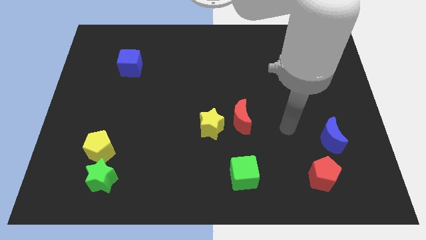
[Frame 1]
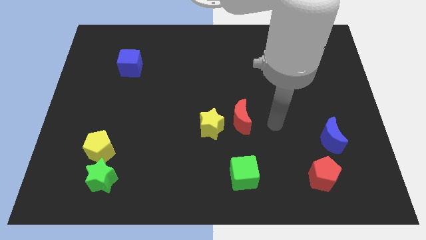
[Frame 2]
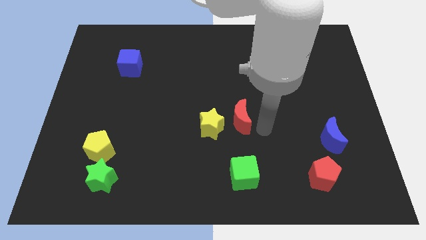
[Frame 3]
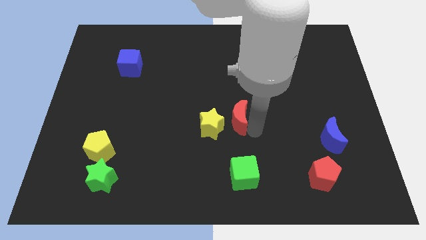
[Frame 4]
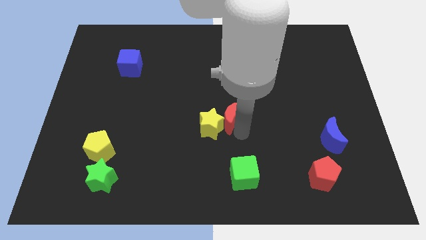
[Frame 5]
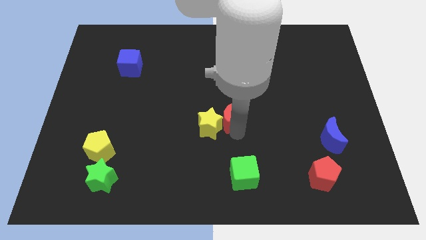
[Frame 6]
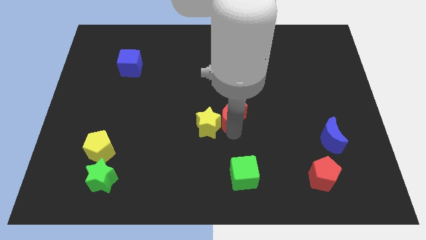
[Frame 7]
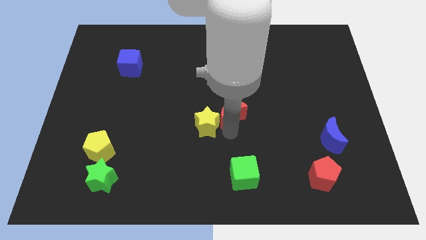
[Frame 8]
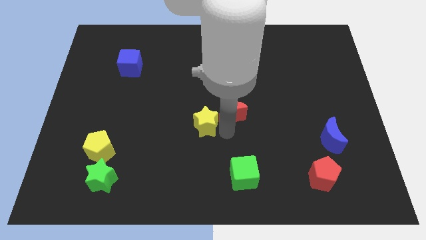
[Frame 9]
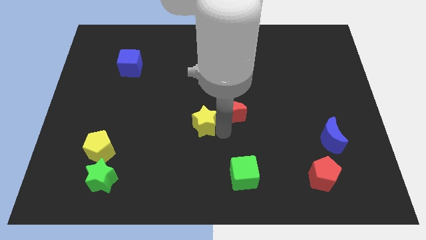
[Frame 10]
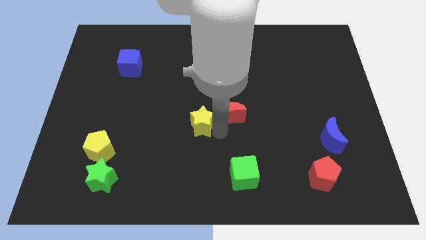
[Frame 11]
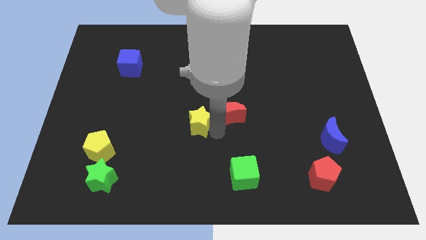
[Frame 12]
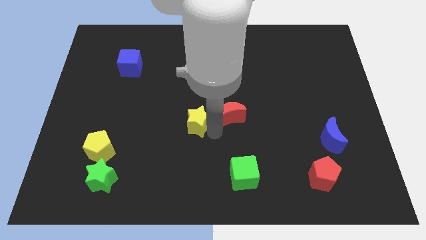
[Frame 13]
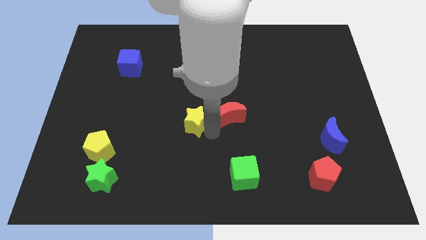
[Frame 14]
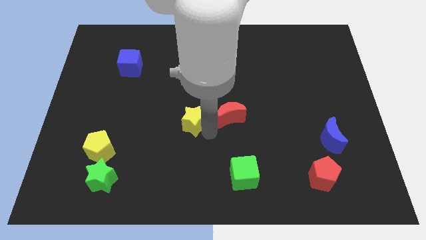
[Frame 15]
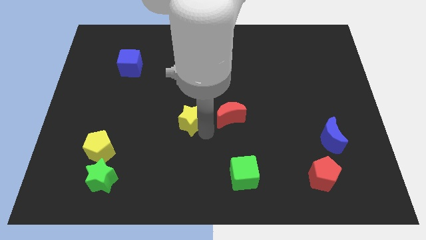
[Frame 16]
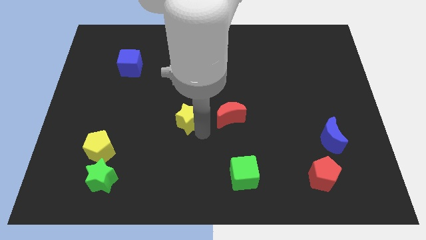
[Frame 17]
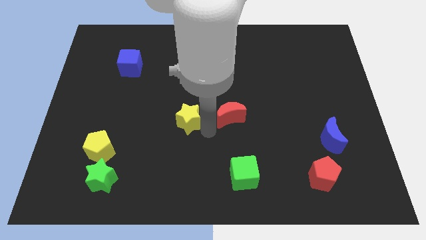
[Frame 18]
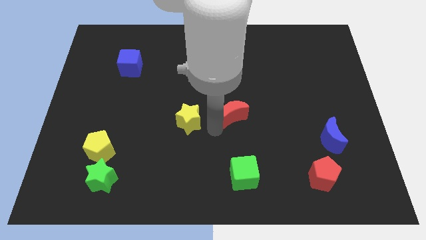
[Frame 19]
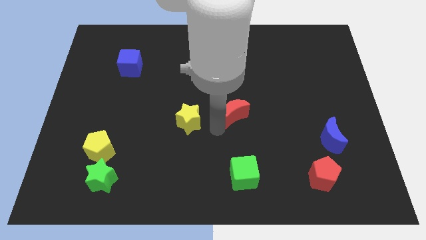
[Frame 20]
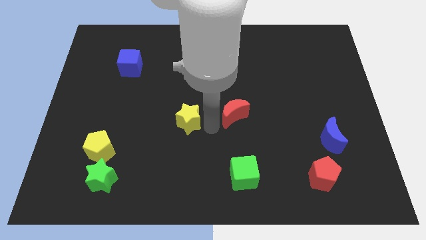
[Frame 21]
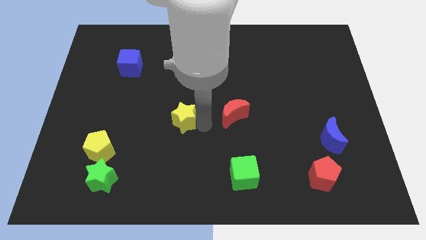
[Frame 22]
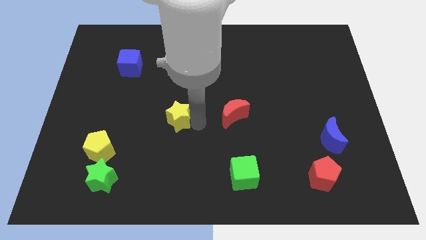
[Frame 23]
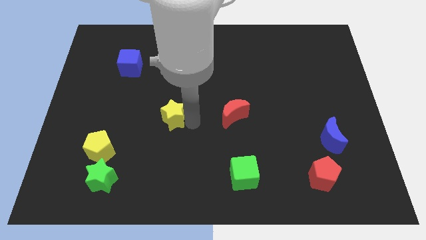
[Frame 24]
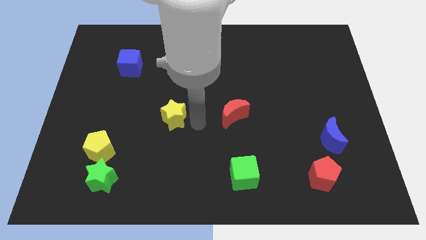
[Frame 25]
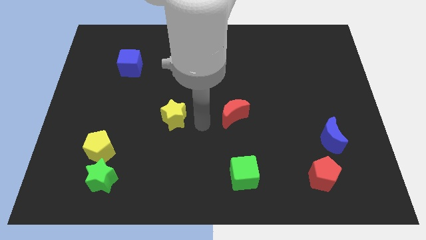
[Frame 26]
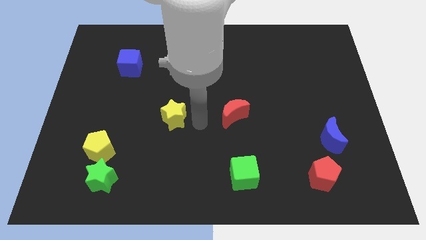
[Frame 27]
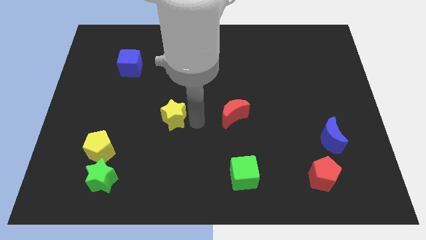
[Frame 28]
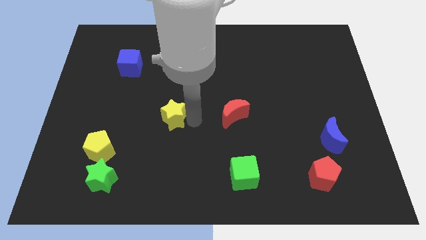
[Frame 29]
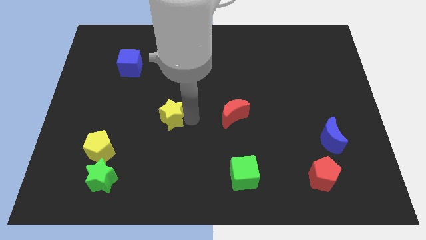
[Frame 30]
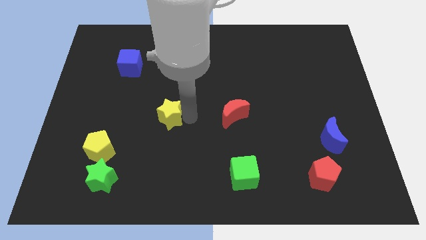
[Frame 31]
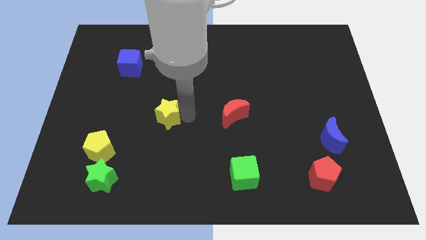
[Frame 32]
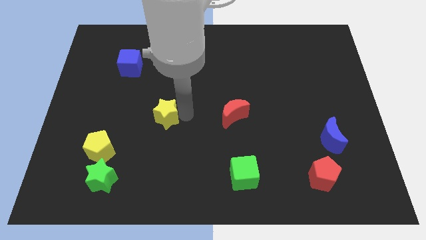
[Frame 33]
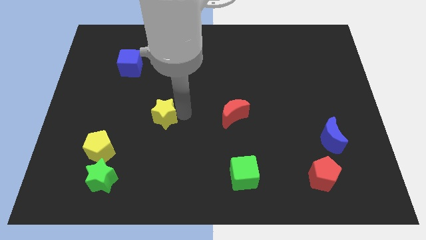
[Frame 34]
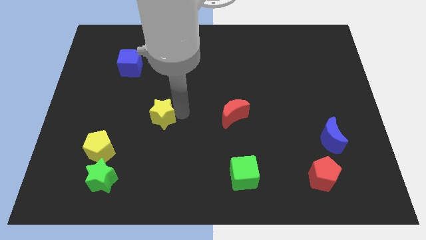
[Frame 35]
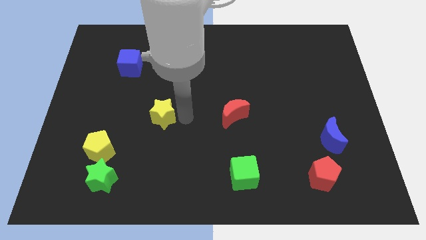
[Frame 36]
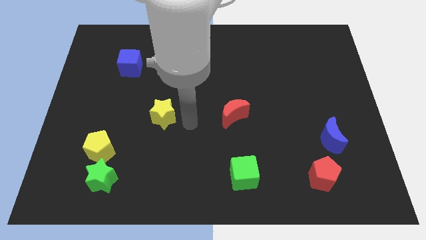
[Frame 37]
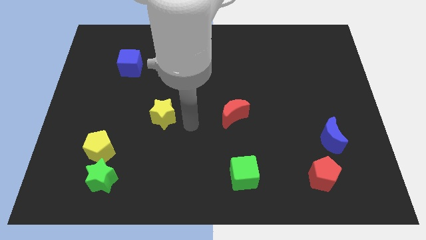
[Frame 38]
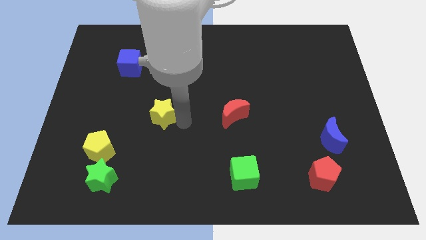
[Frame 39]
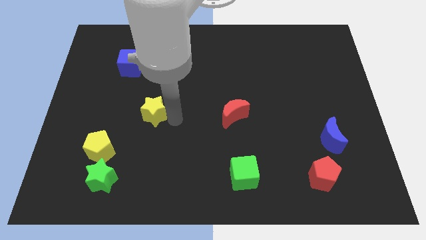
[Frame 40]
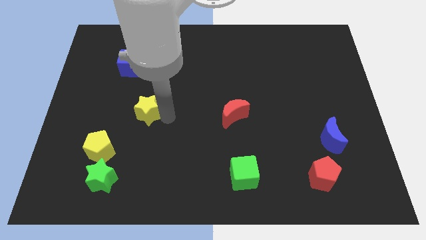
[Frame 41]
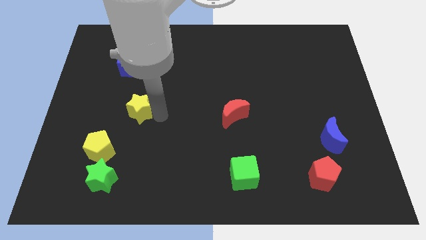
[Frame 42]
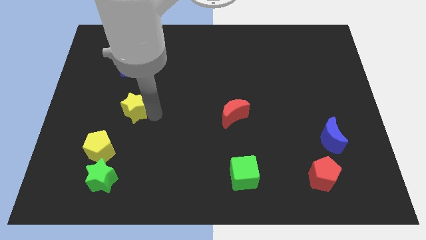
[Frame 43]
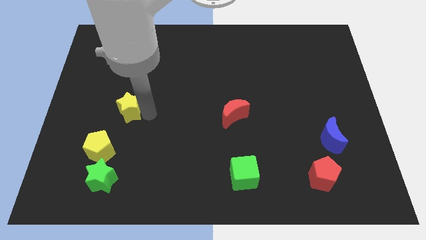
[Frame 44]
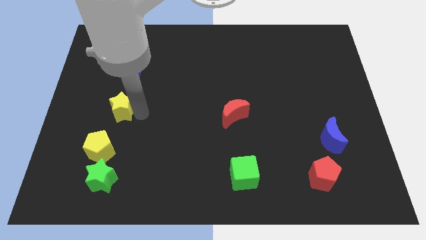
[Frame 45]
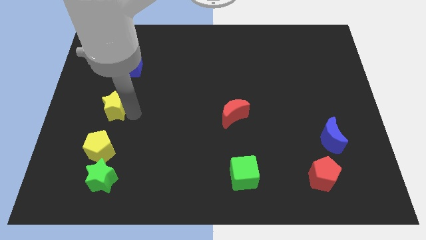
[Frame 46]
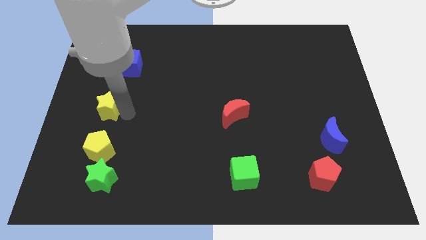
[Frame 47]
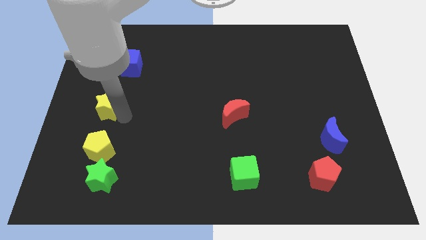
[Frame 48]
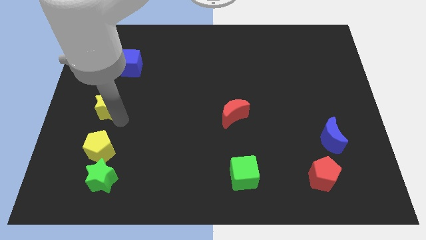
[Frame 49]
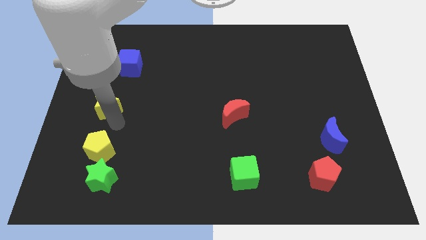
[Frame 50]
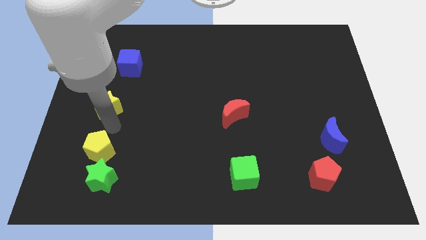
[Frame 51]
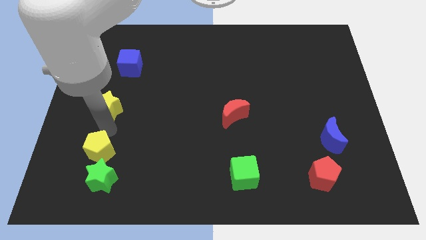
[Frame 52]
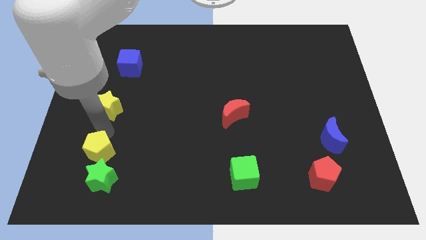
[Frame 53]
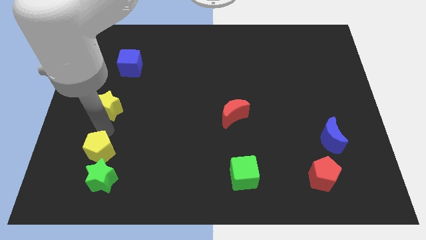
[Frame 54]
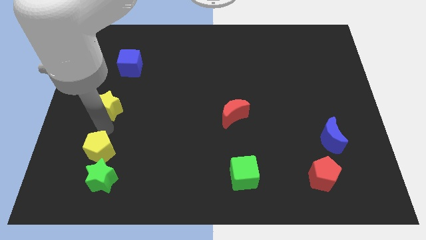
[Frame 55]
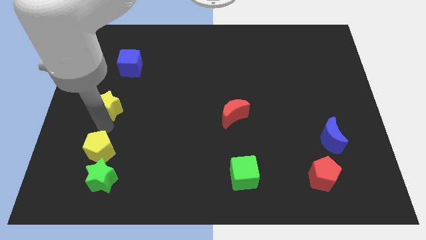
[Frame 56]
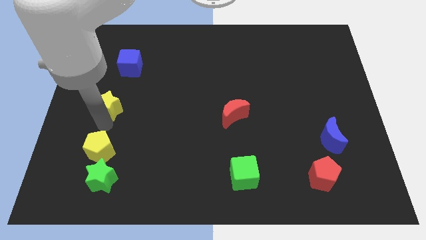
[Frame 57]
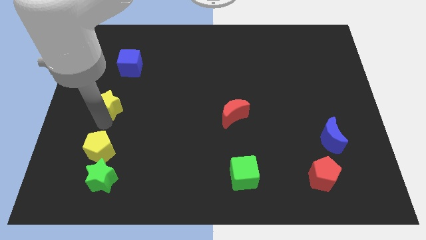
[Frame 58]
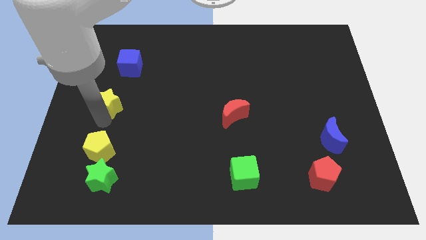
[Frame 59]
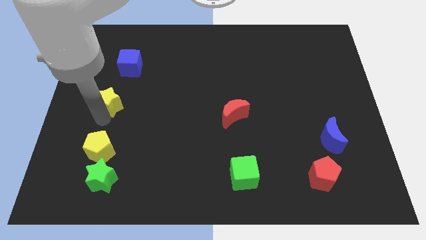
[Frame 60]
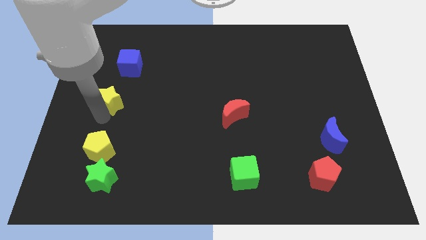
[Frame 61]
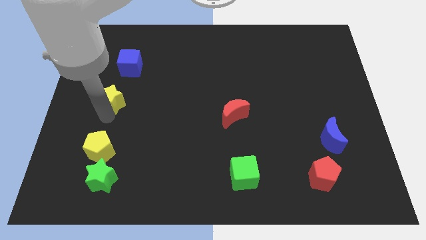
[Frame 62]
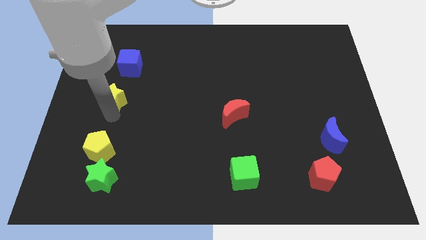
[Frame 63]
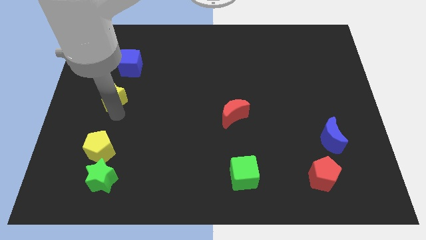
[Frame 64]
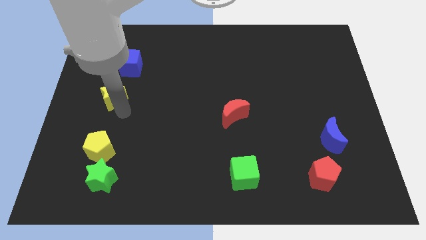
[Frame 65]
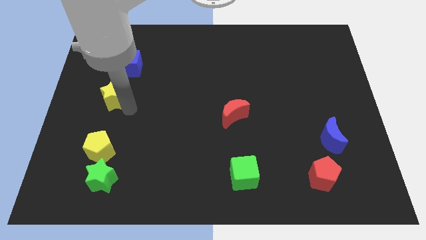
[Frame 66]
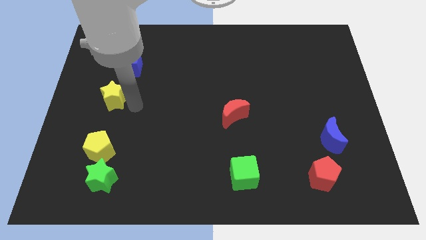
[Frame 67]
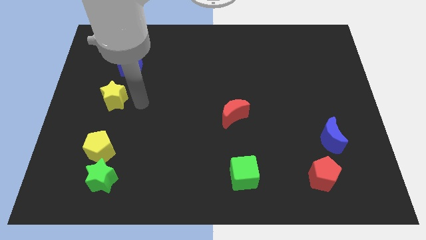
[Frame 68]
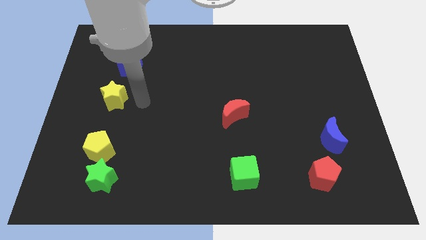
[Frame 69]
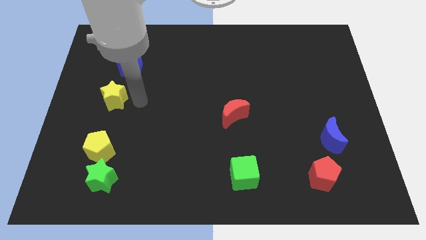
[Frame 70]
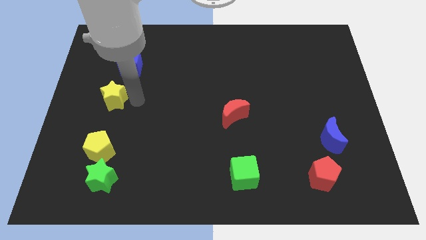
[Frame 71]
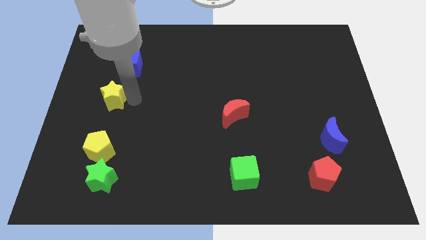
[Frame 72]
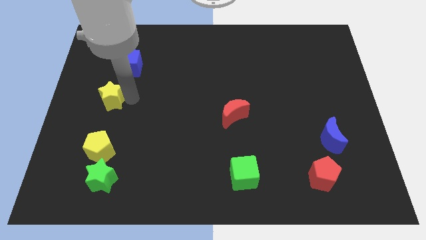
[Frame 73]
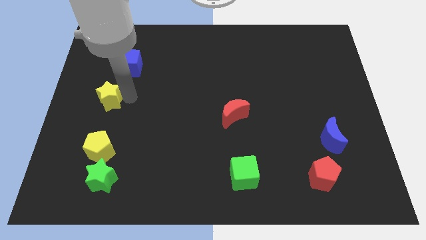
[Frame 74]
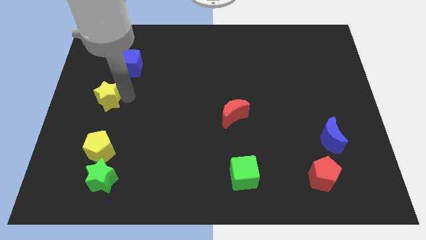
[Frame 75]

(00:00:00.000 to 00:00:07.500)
slide the yellow star to the left side
